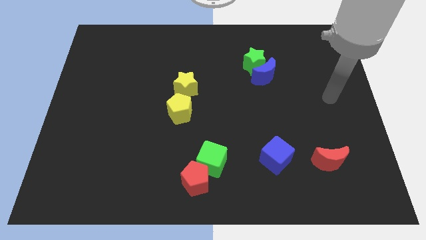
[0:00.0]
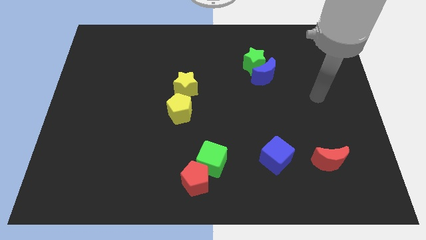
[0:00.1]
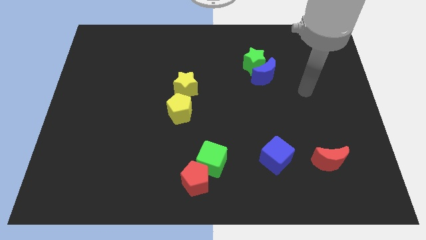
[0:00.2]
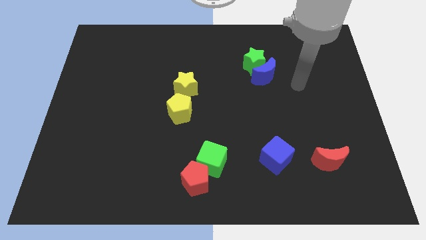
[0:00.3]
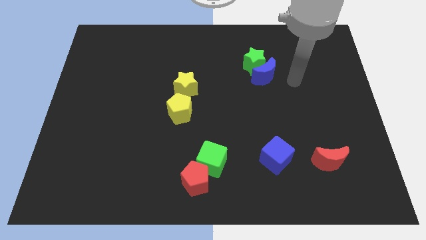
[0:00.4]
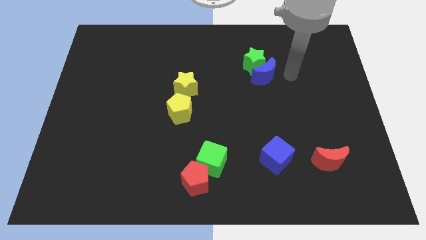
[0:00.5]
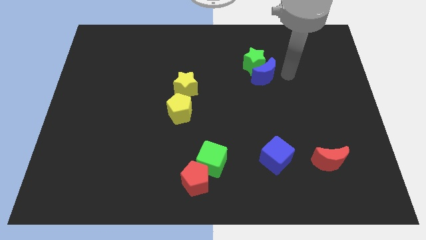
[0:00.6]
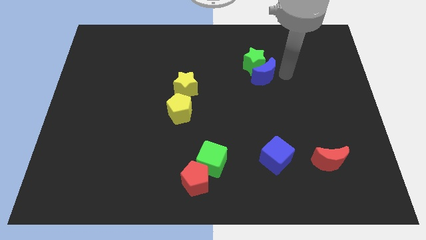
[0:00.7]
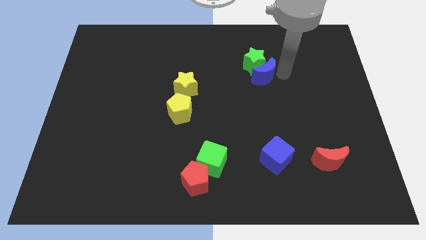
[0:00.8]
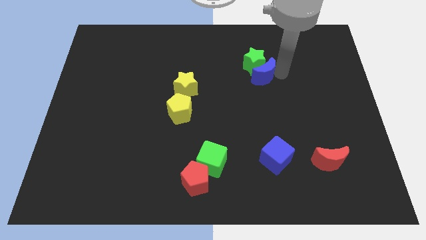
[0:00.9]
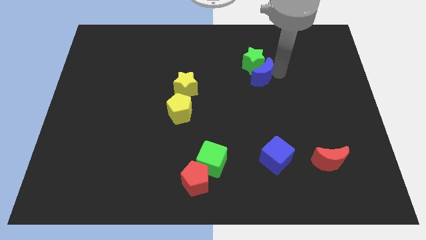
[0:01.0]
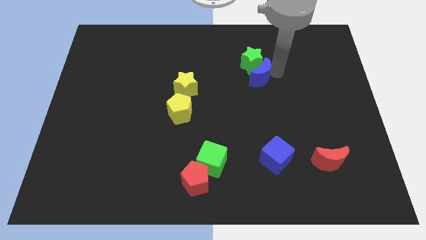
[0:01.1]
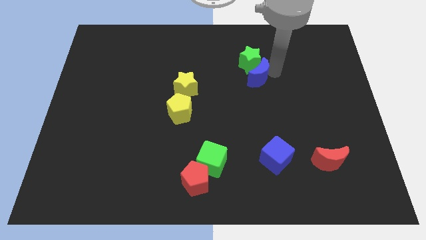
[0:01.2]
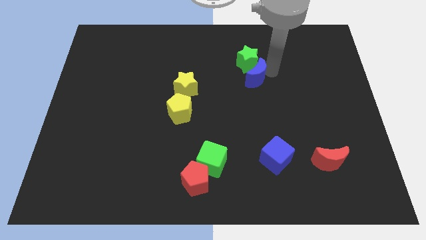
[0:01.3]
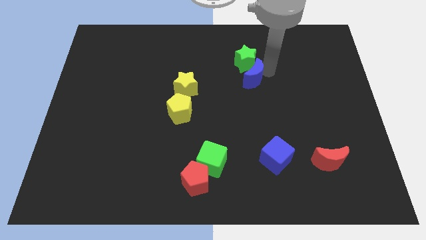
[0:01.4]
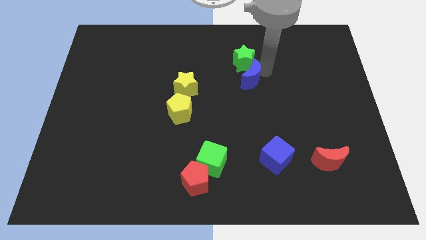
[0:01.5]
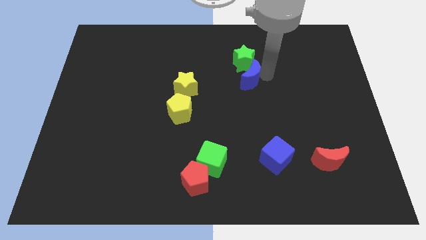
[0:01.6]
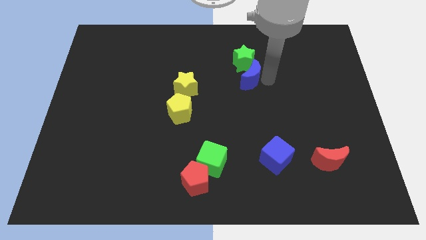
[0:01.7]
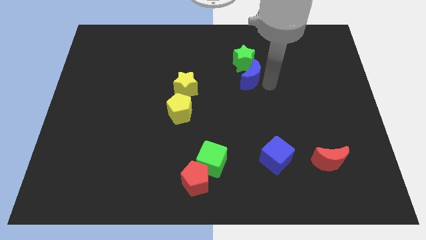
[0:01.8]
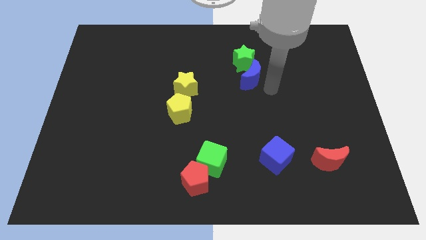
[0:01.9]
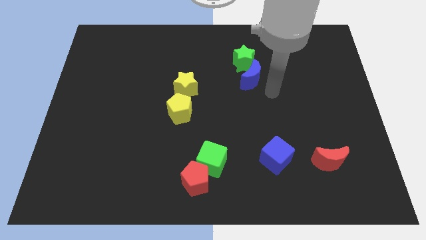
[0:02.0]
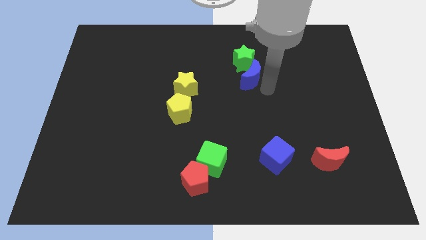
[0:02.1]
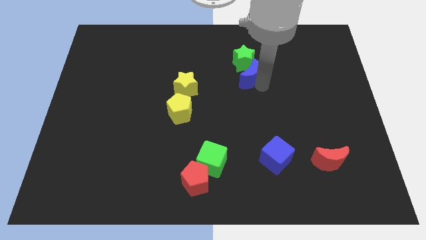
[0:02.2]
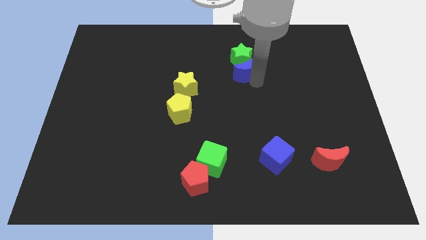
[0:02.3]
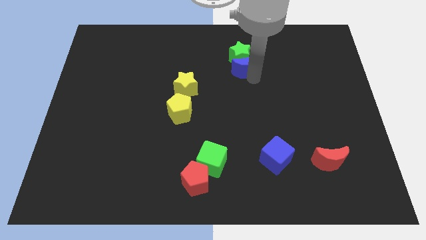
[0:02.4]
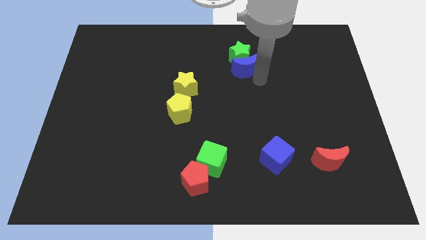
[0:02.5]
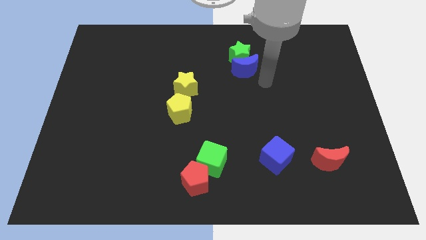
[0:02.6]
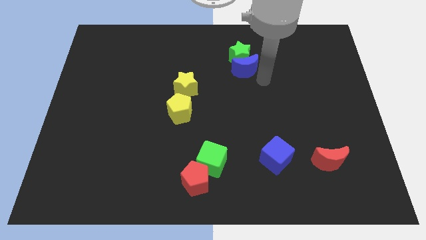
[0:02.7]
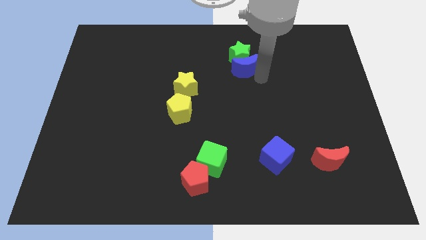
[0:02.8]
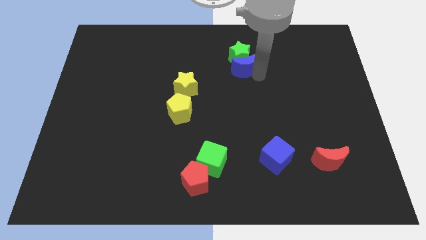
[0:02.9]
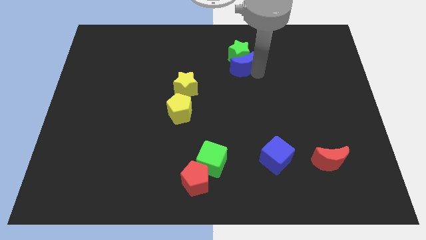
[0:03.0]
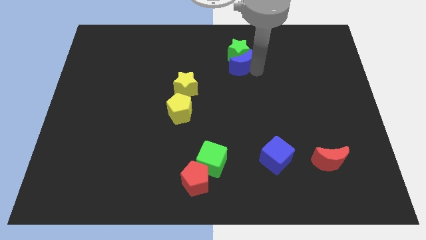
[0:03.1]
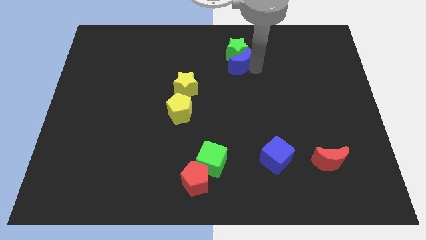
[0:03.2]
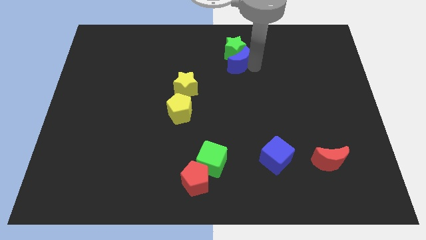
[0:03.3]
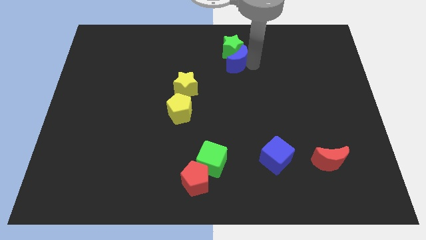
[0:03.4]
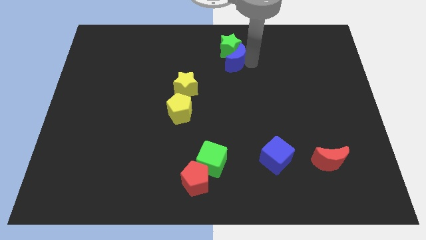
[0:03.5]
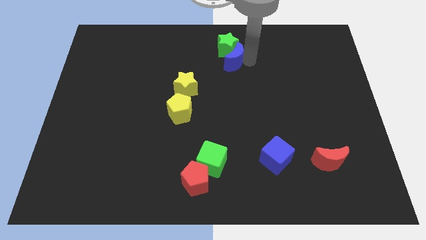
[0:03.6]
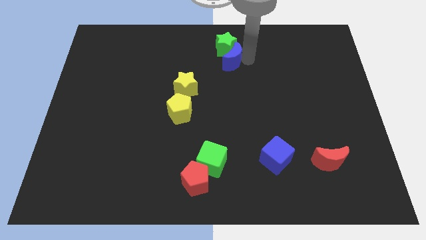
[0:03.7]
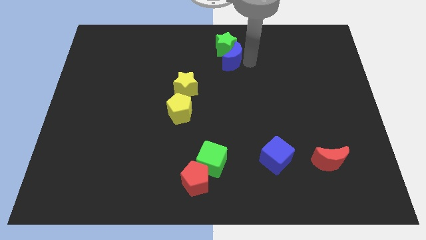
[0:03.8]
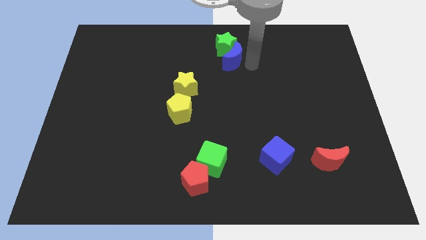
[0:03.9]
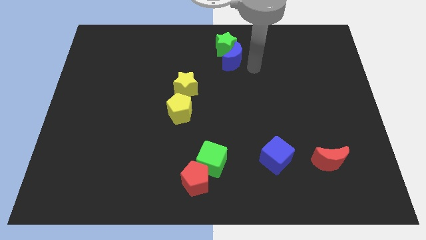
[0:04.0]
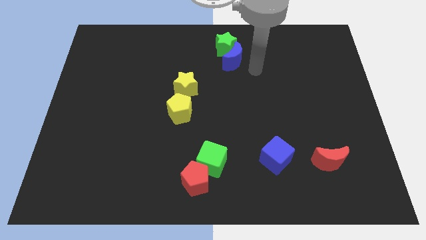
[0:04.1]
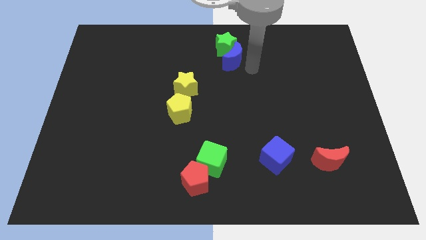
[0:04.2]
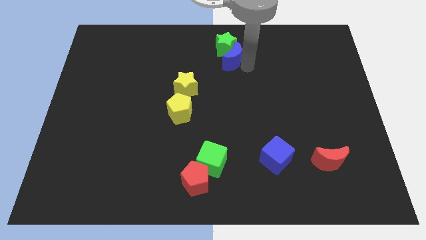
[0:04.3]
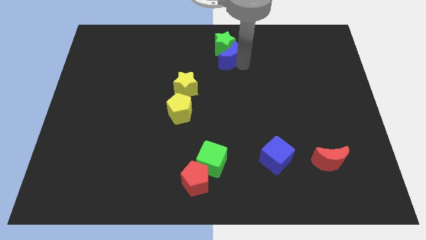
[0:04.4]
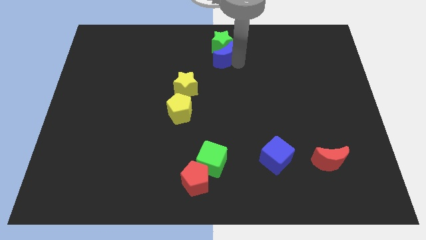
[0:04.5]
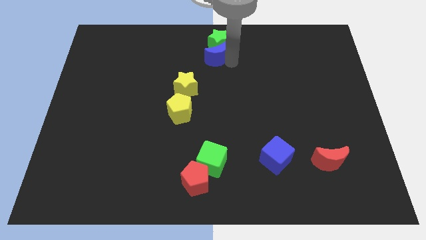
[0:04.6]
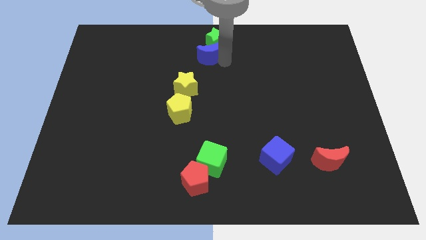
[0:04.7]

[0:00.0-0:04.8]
move the blue moon to the top

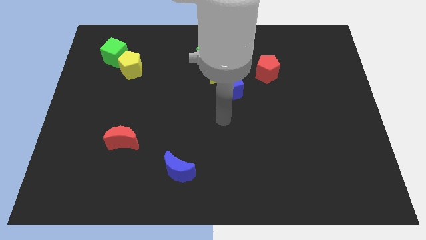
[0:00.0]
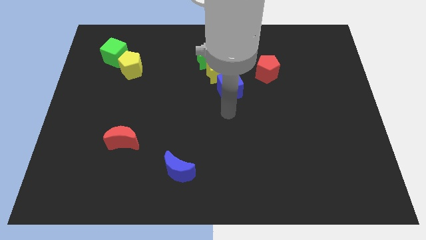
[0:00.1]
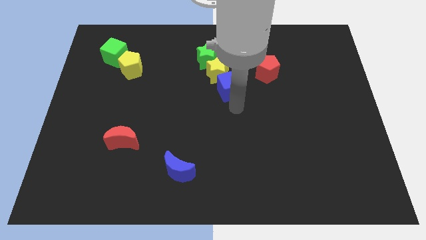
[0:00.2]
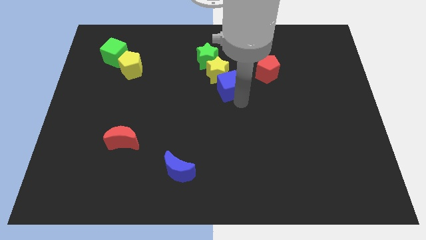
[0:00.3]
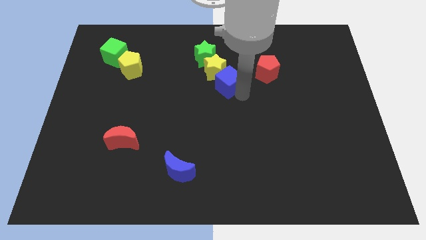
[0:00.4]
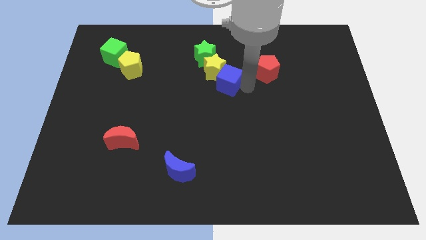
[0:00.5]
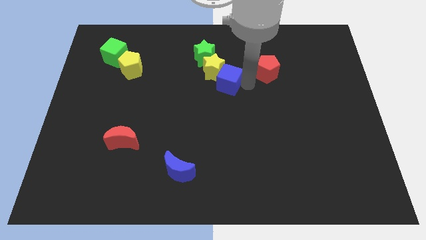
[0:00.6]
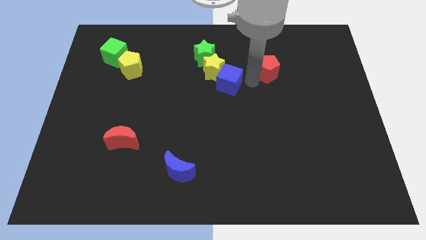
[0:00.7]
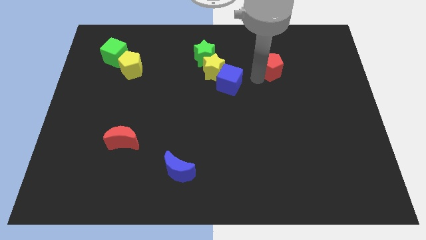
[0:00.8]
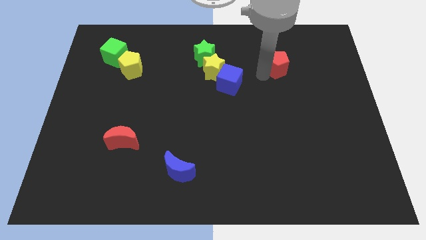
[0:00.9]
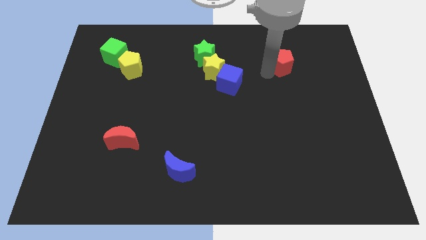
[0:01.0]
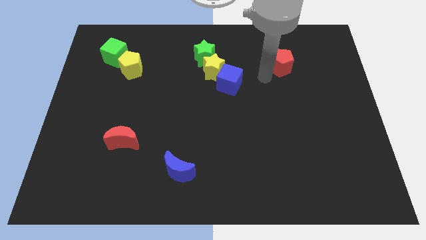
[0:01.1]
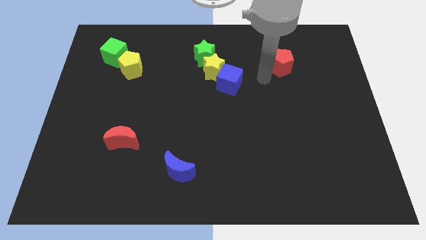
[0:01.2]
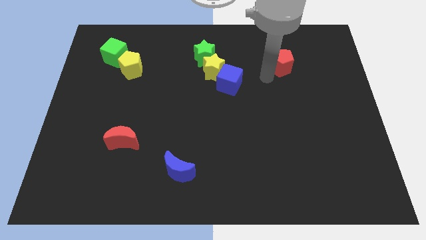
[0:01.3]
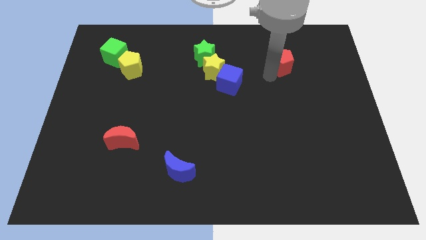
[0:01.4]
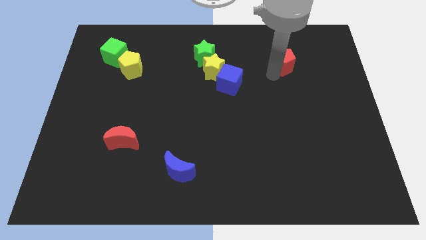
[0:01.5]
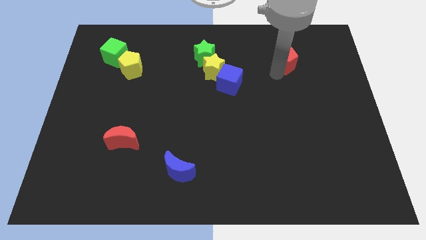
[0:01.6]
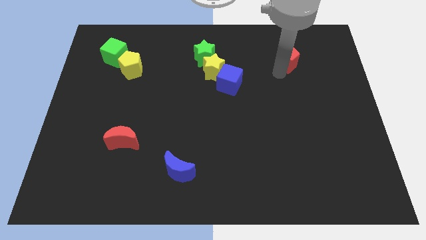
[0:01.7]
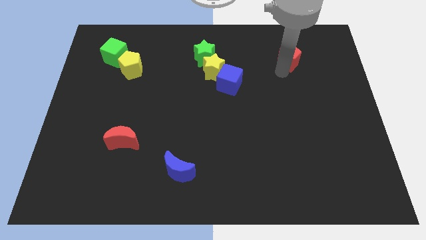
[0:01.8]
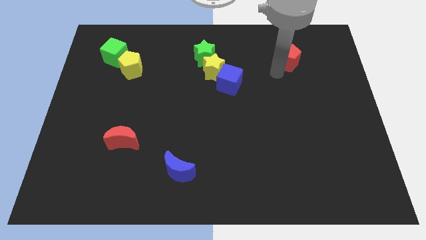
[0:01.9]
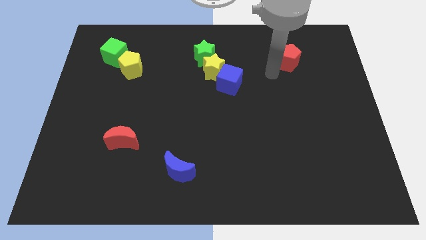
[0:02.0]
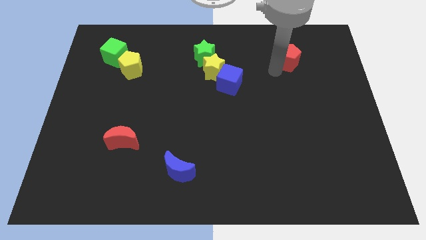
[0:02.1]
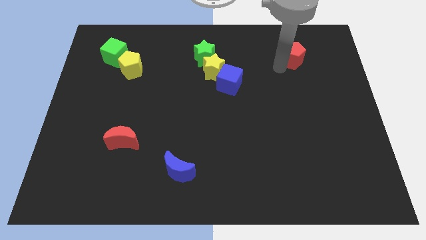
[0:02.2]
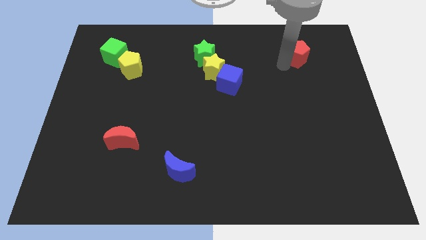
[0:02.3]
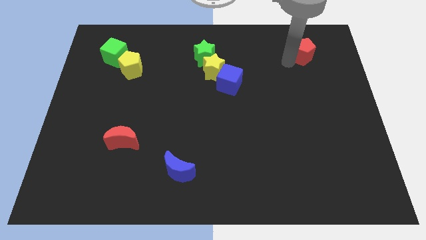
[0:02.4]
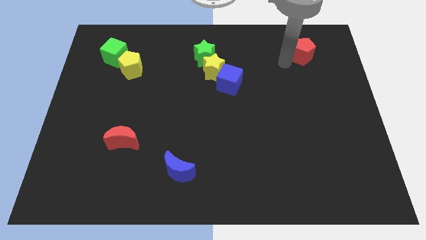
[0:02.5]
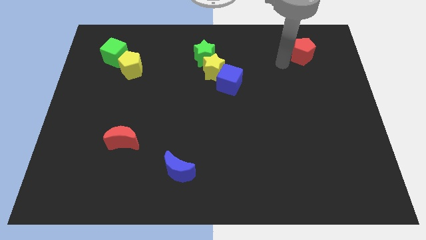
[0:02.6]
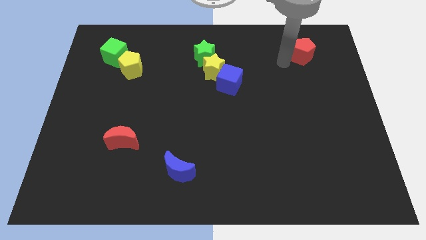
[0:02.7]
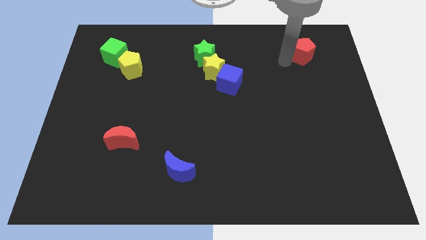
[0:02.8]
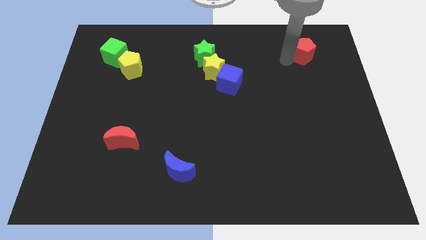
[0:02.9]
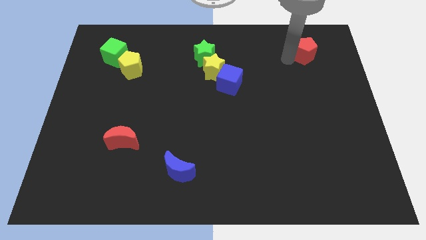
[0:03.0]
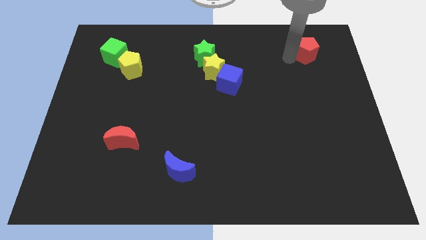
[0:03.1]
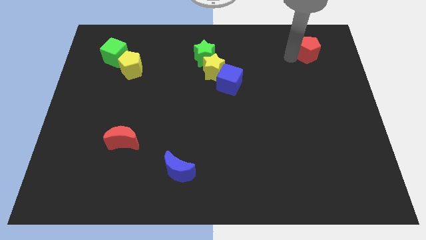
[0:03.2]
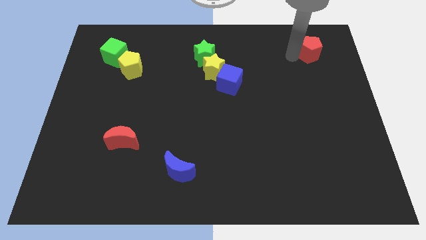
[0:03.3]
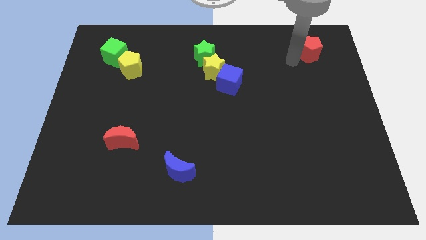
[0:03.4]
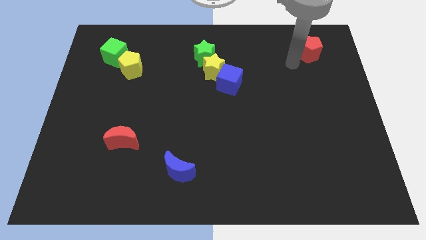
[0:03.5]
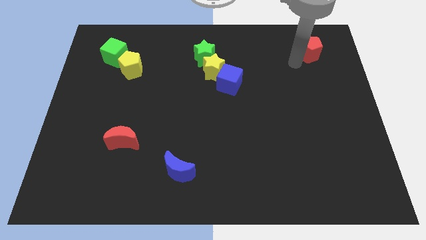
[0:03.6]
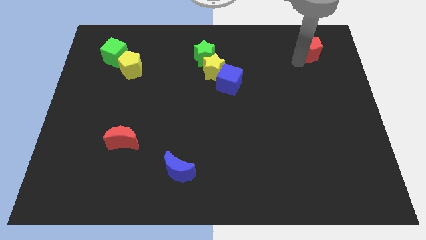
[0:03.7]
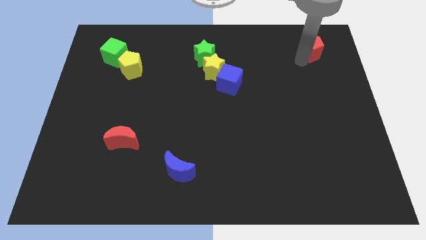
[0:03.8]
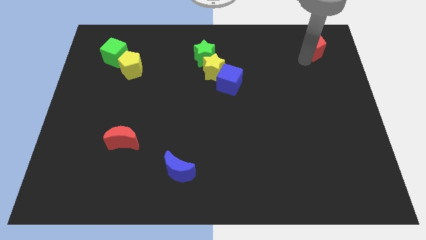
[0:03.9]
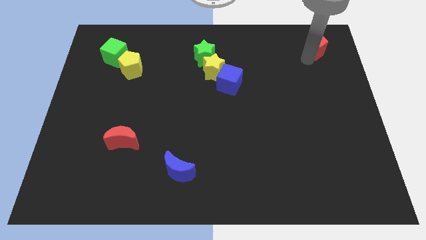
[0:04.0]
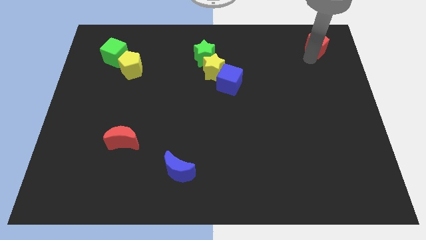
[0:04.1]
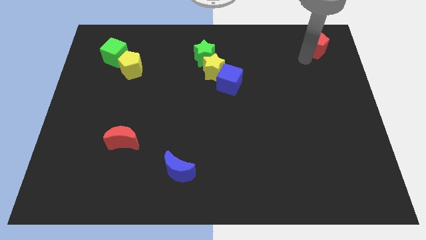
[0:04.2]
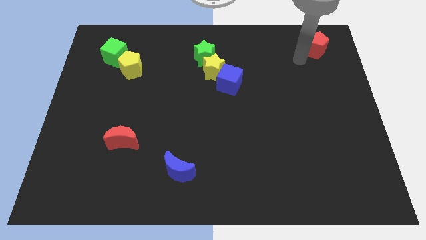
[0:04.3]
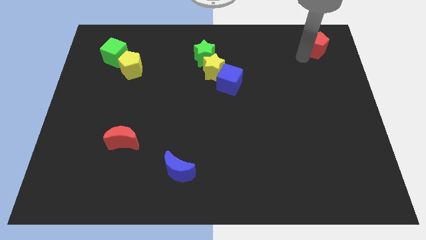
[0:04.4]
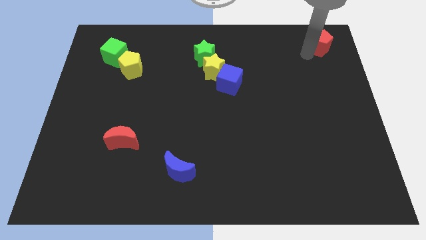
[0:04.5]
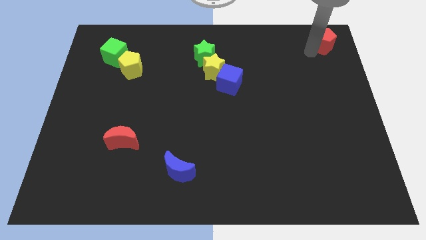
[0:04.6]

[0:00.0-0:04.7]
put the red pentagon to the top right
